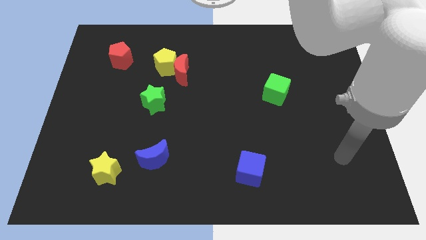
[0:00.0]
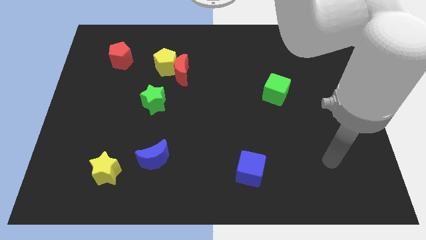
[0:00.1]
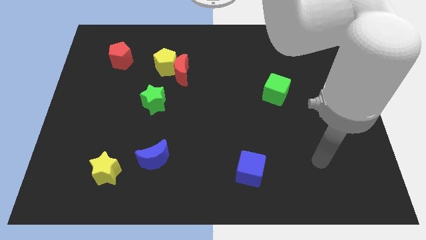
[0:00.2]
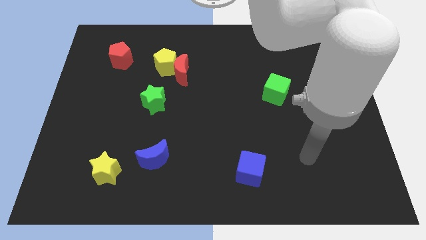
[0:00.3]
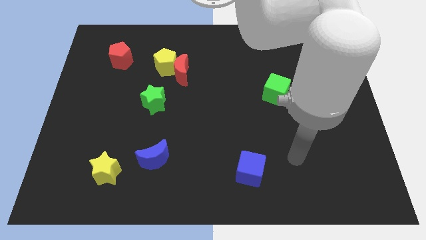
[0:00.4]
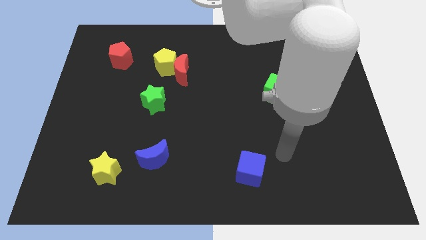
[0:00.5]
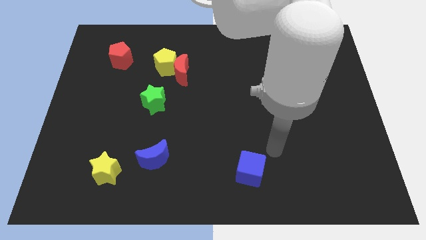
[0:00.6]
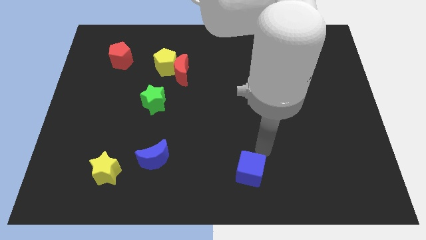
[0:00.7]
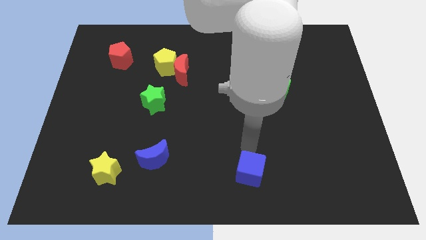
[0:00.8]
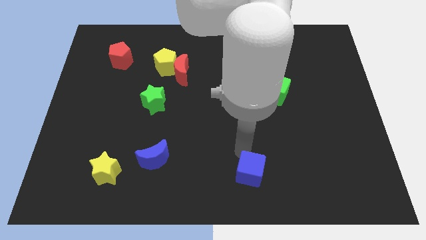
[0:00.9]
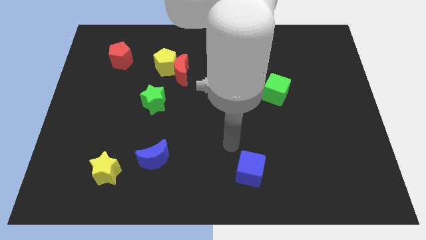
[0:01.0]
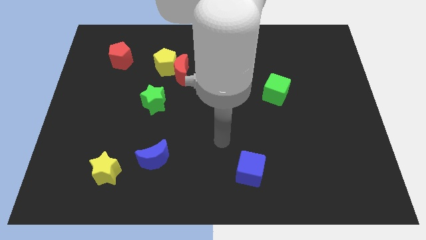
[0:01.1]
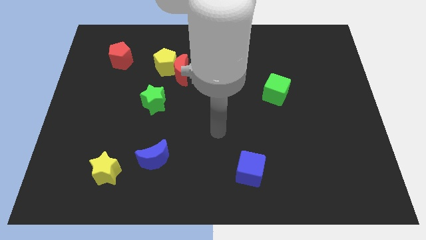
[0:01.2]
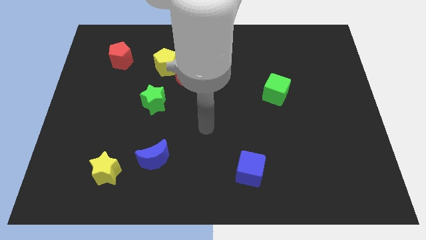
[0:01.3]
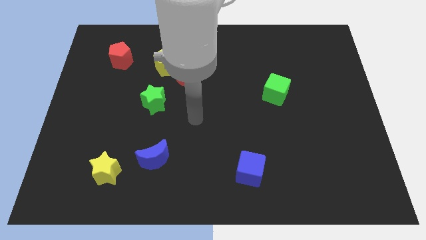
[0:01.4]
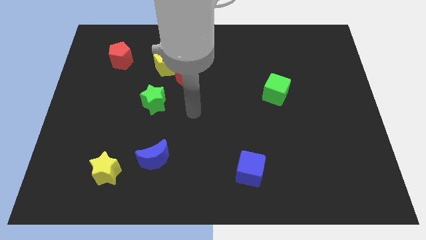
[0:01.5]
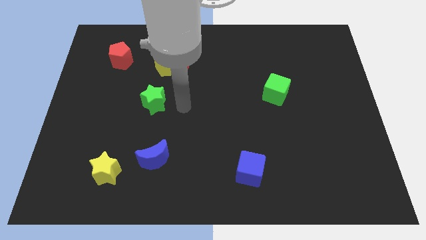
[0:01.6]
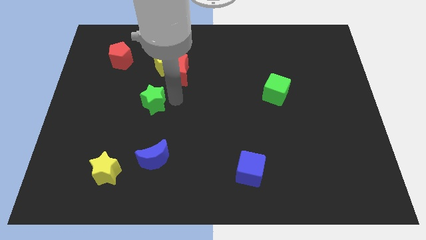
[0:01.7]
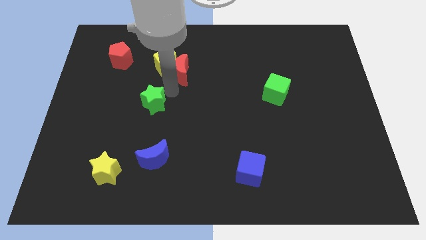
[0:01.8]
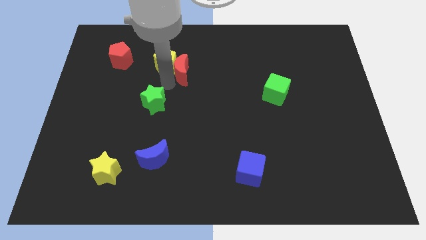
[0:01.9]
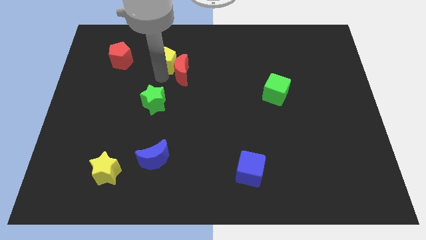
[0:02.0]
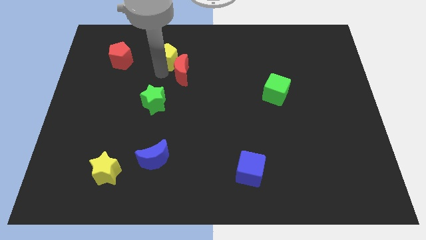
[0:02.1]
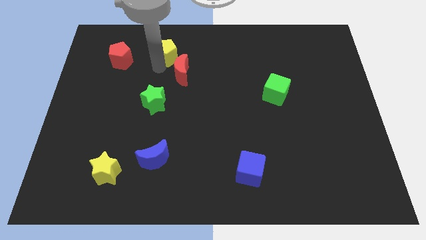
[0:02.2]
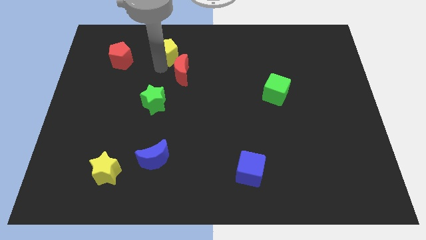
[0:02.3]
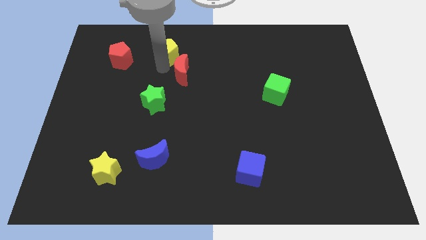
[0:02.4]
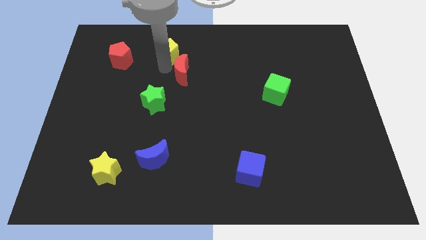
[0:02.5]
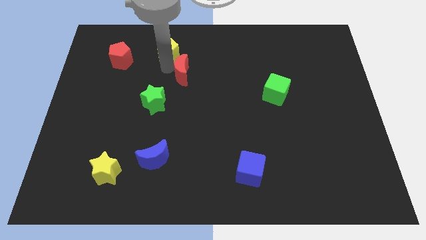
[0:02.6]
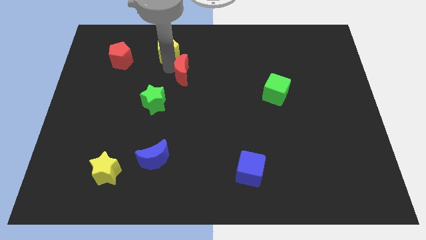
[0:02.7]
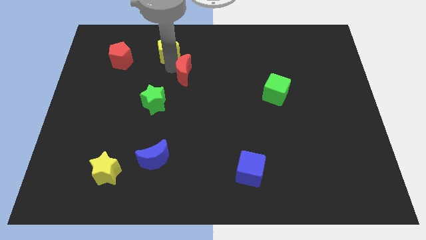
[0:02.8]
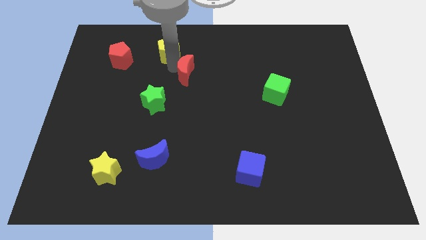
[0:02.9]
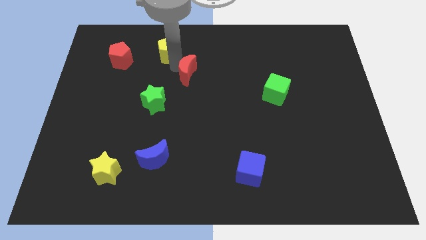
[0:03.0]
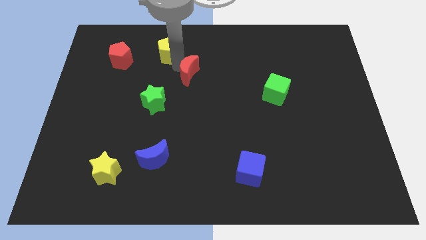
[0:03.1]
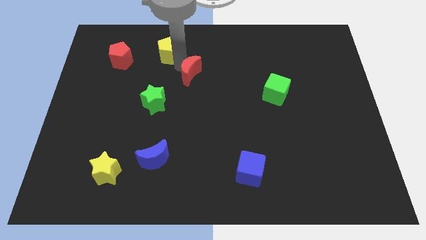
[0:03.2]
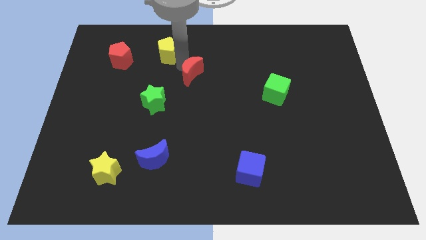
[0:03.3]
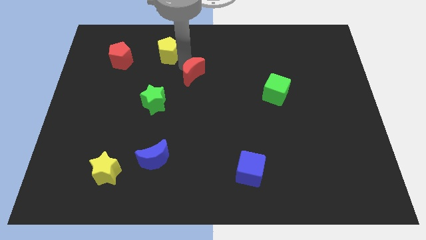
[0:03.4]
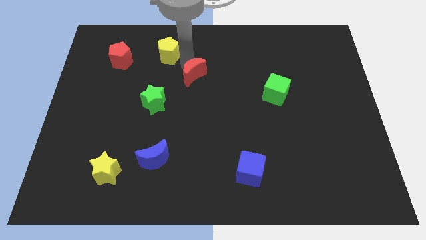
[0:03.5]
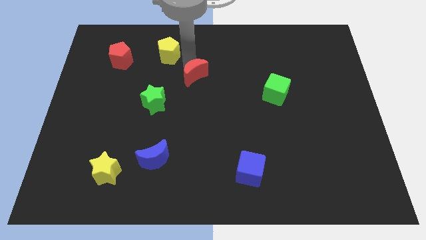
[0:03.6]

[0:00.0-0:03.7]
move the red moon away from the yellow pentagon

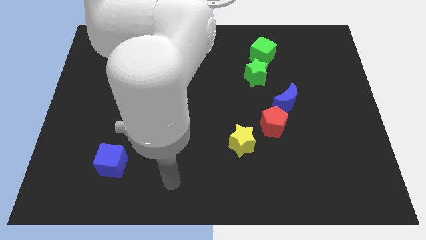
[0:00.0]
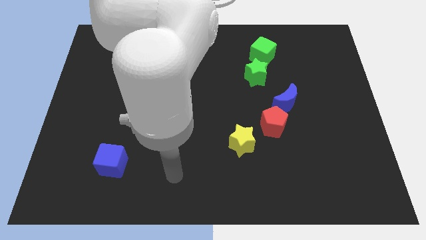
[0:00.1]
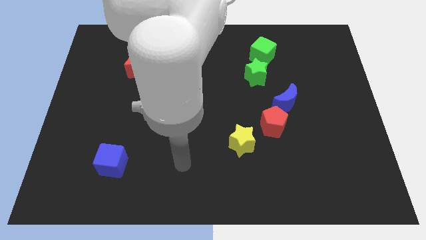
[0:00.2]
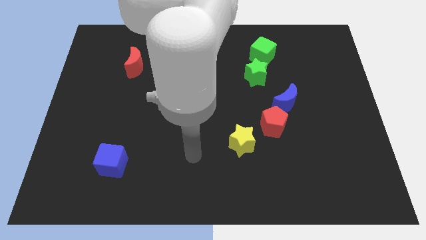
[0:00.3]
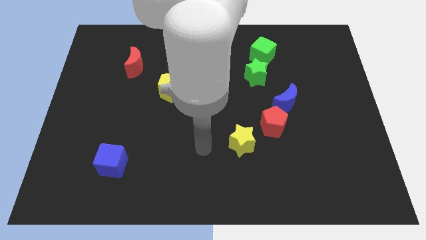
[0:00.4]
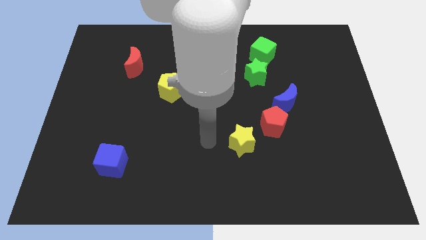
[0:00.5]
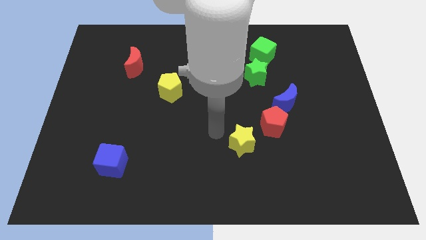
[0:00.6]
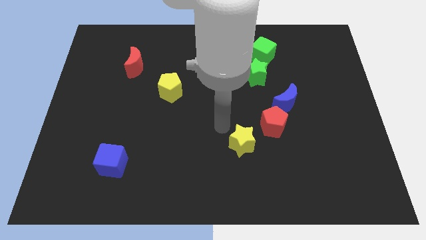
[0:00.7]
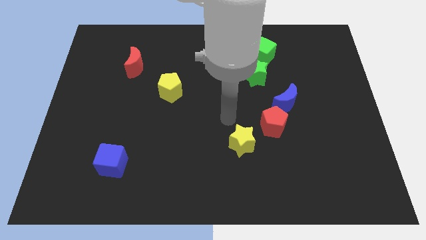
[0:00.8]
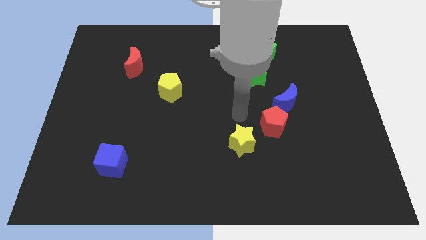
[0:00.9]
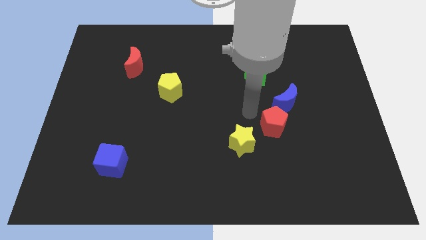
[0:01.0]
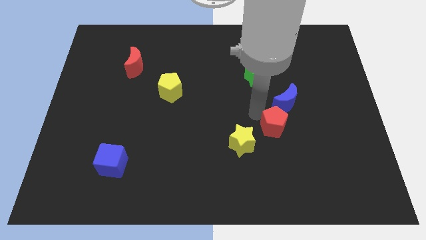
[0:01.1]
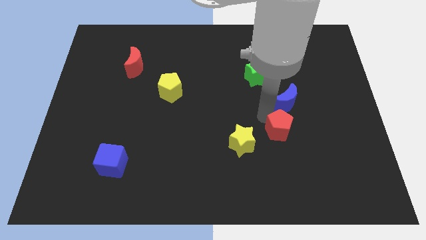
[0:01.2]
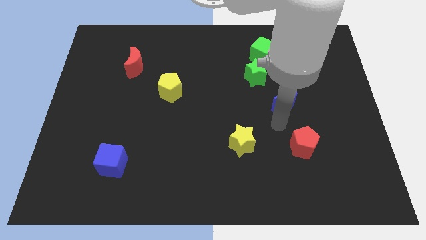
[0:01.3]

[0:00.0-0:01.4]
separate the blue moon from the red pentagon

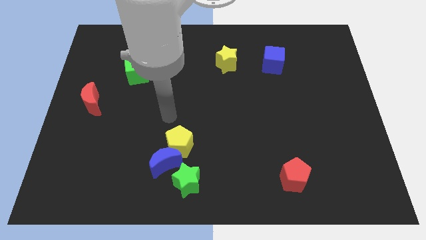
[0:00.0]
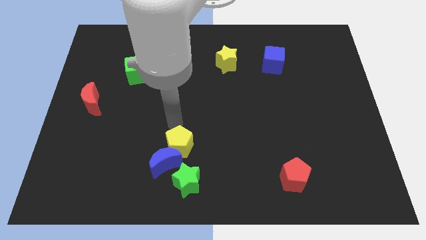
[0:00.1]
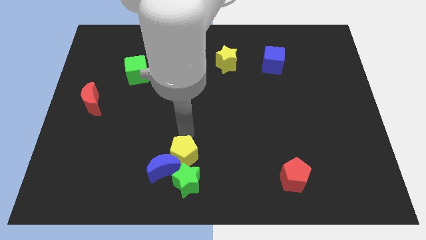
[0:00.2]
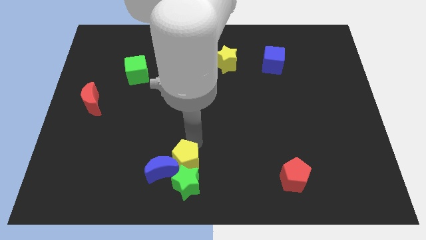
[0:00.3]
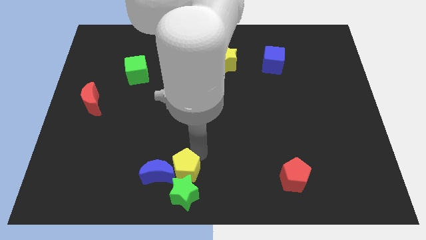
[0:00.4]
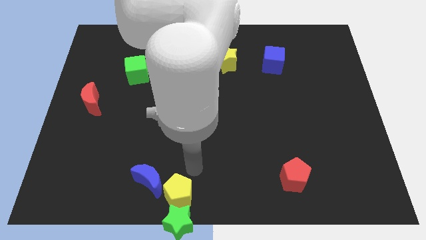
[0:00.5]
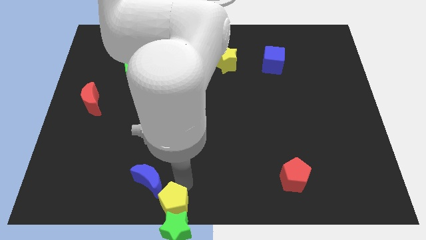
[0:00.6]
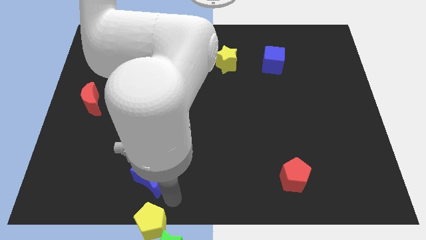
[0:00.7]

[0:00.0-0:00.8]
move the blue moon away from the yellow pentagon and green star

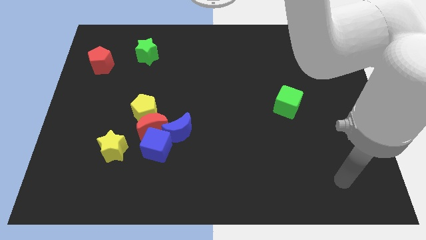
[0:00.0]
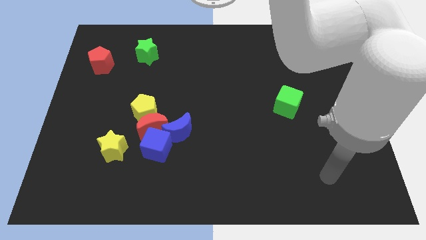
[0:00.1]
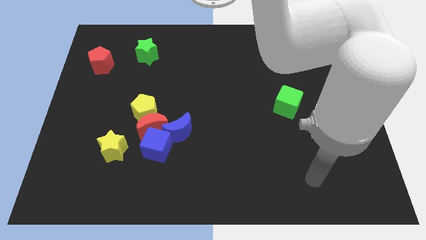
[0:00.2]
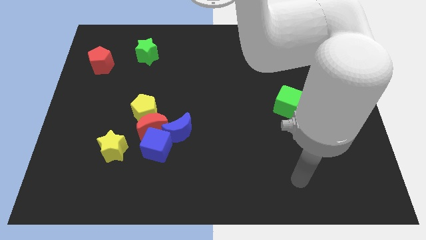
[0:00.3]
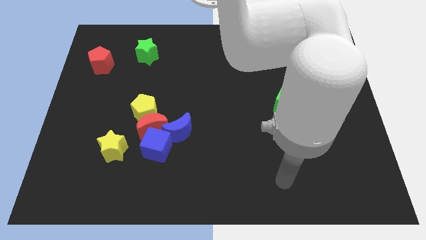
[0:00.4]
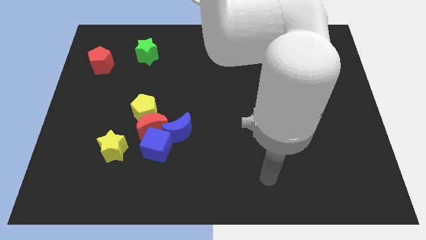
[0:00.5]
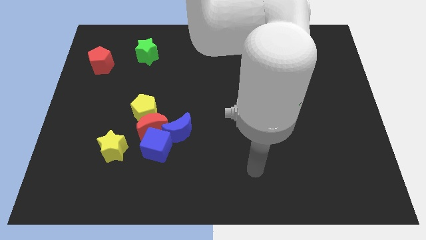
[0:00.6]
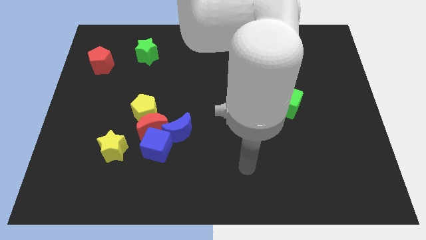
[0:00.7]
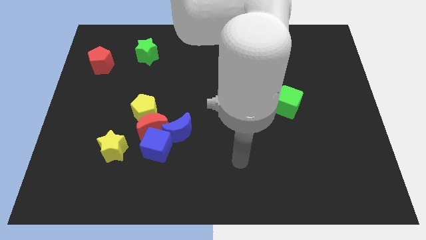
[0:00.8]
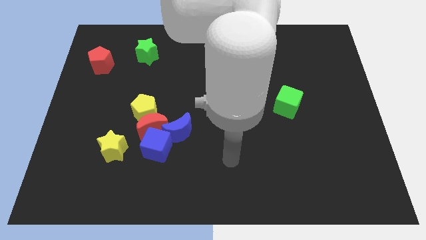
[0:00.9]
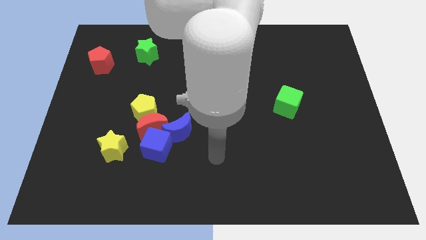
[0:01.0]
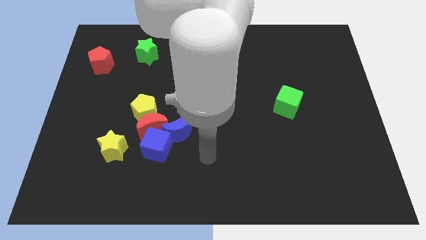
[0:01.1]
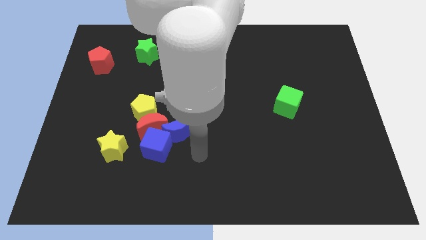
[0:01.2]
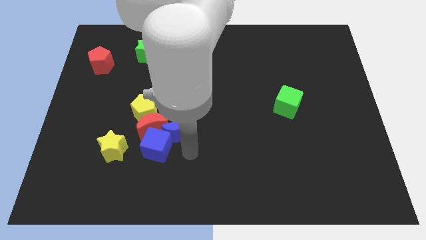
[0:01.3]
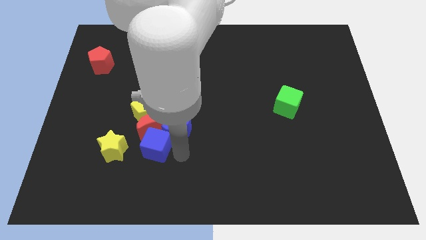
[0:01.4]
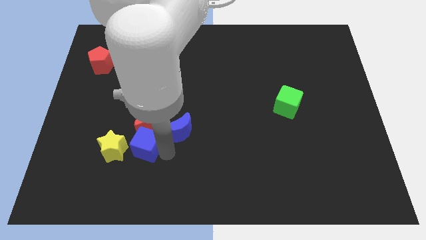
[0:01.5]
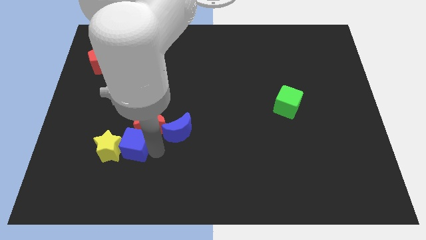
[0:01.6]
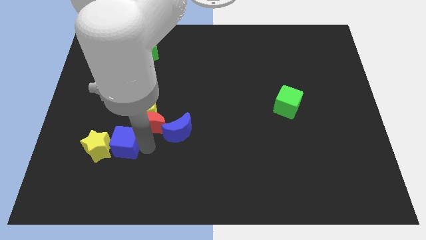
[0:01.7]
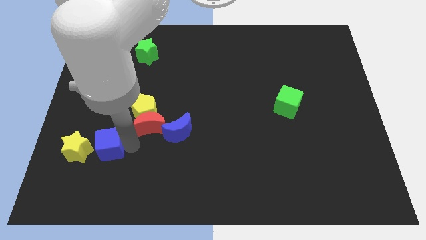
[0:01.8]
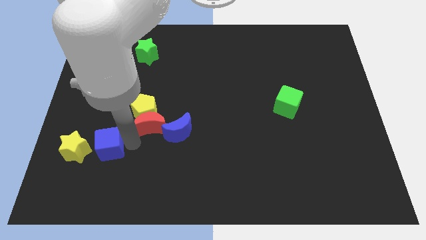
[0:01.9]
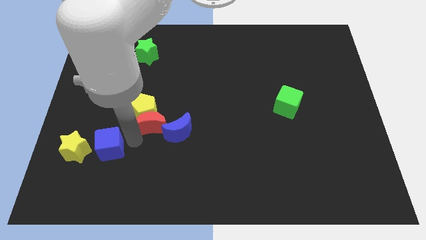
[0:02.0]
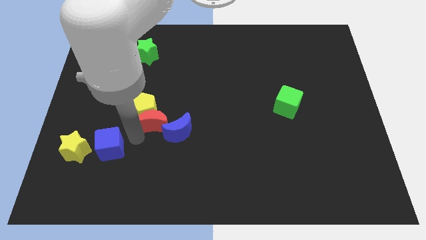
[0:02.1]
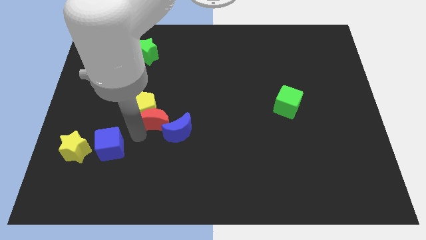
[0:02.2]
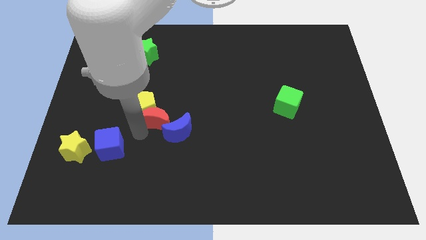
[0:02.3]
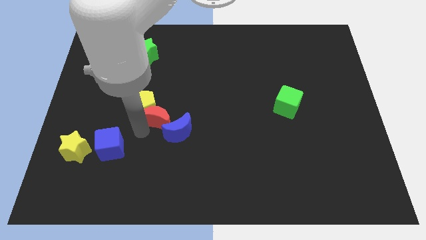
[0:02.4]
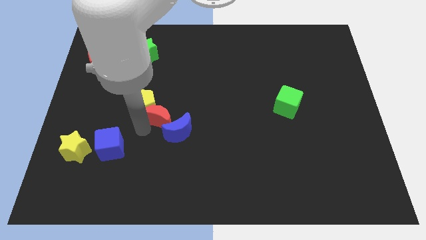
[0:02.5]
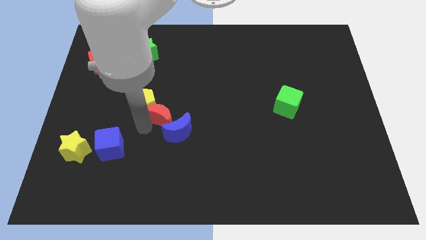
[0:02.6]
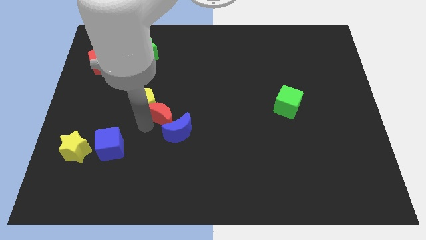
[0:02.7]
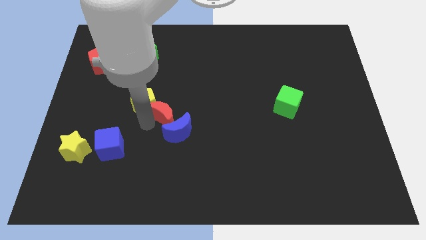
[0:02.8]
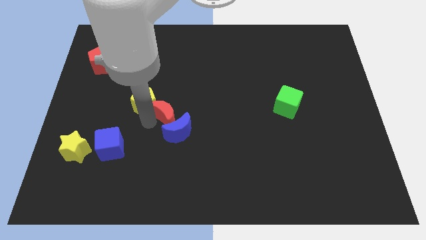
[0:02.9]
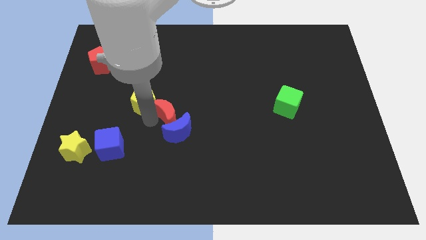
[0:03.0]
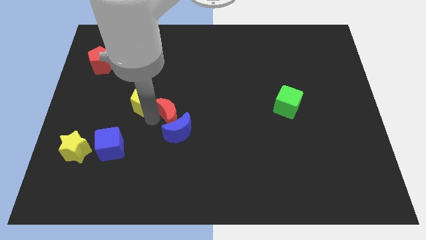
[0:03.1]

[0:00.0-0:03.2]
separate the red moon from the clump

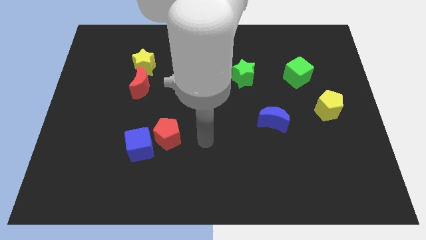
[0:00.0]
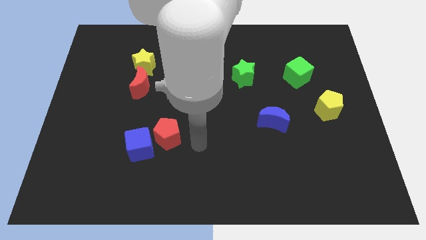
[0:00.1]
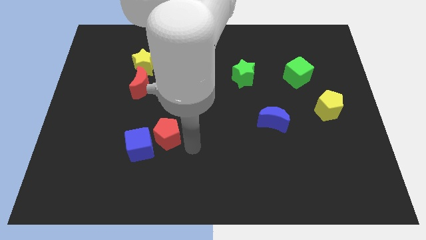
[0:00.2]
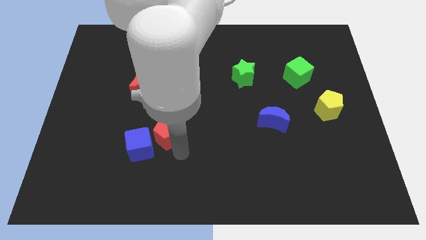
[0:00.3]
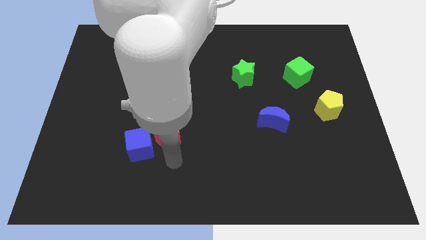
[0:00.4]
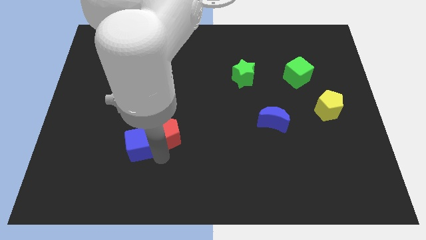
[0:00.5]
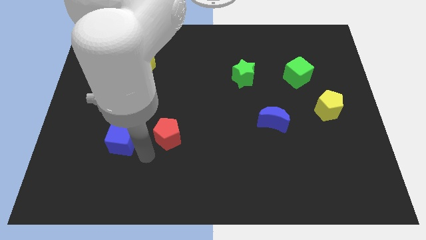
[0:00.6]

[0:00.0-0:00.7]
move the red pentagon away from the blue cube
